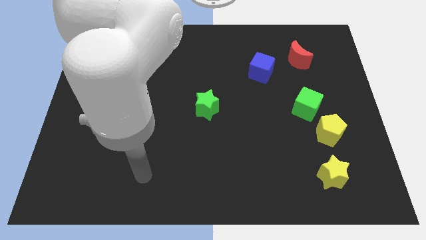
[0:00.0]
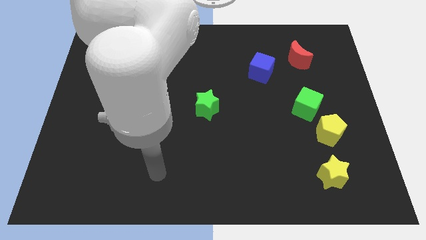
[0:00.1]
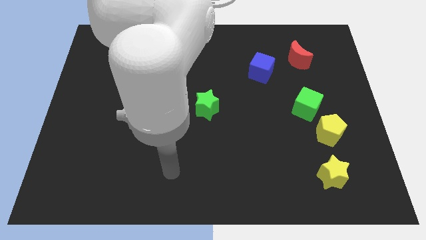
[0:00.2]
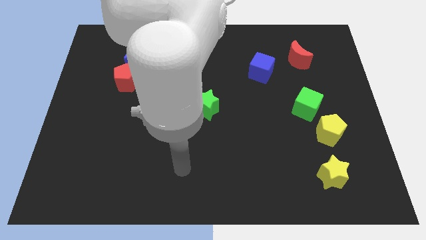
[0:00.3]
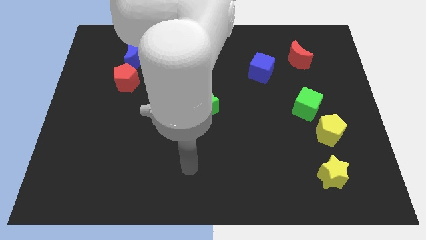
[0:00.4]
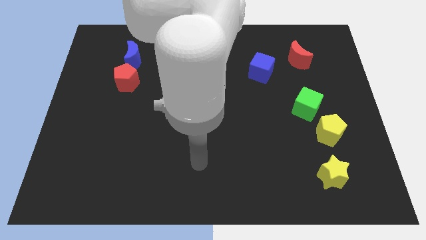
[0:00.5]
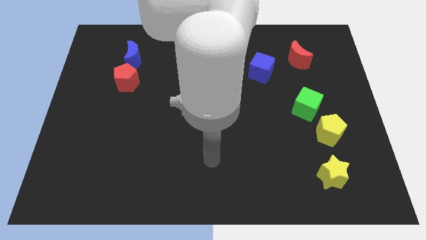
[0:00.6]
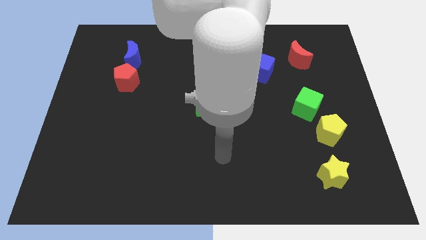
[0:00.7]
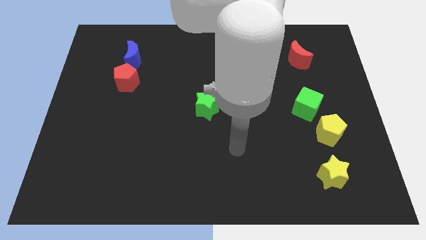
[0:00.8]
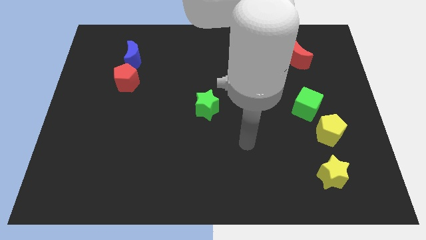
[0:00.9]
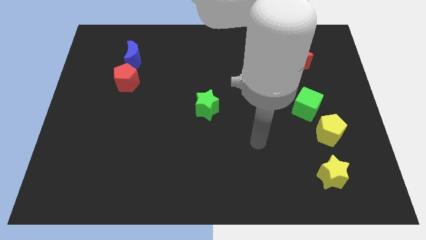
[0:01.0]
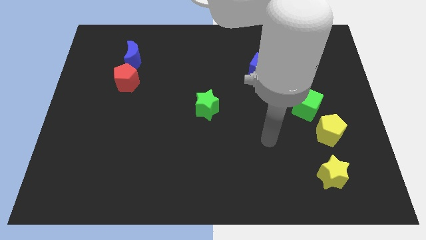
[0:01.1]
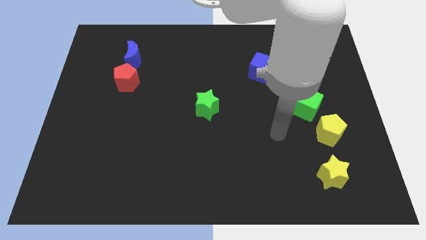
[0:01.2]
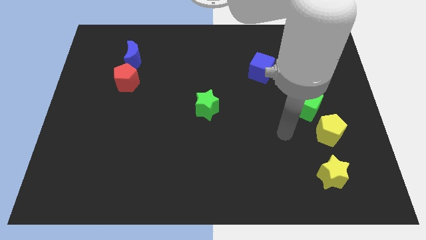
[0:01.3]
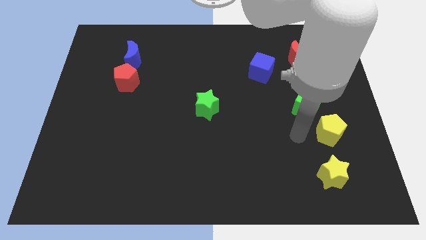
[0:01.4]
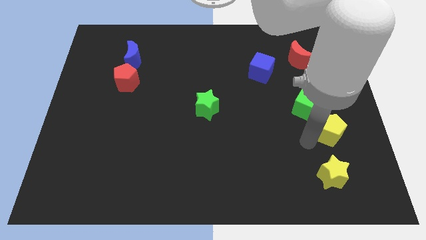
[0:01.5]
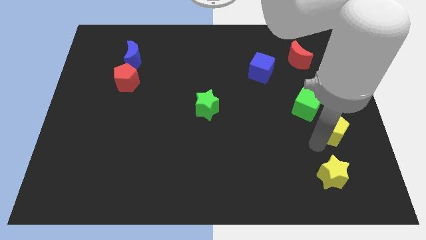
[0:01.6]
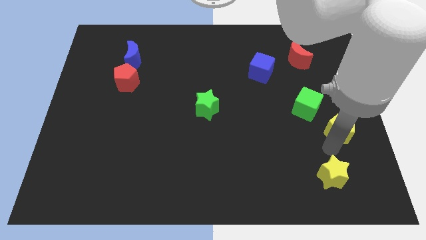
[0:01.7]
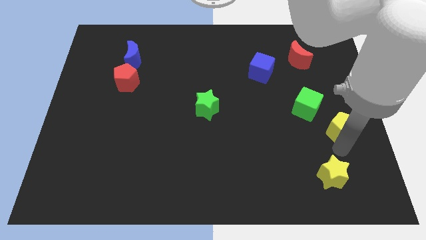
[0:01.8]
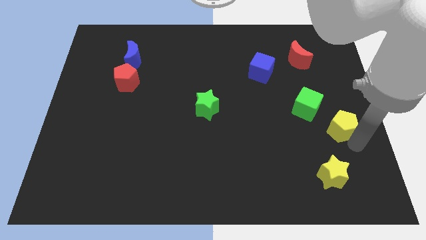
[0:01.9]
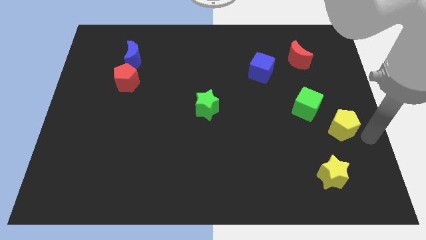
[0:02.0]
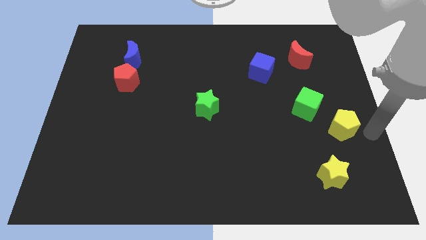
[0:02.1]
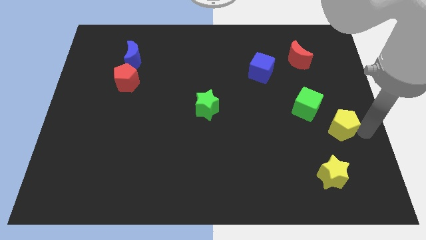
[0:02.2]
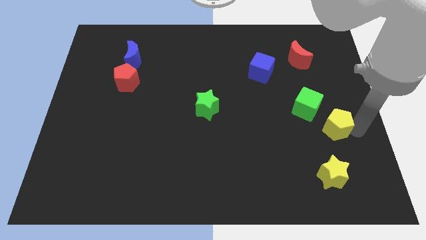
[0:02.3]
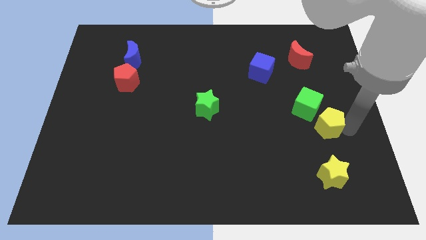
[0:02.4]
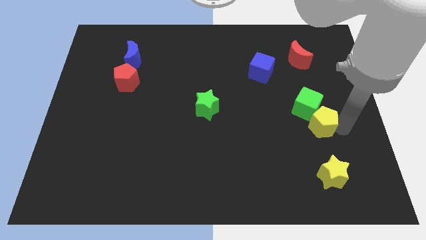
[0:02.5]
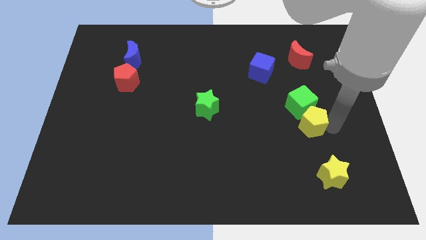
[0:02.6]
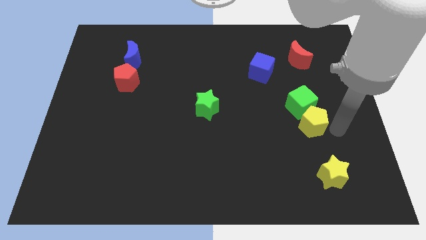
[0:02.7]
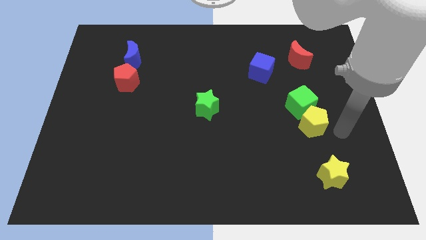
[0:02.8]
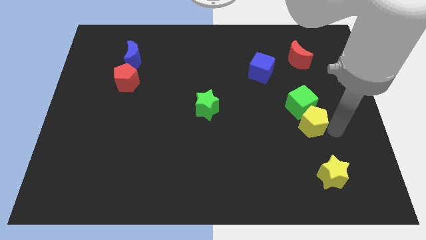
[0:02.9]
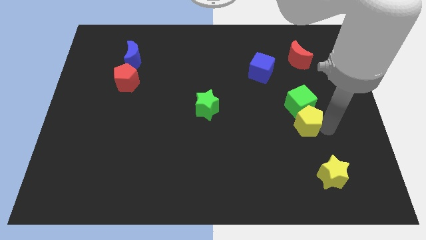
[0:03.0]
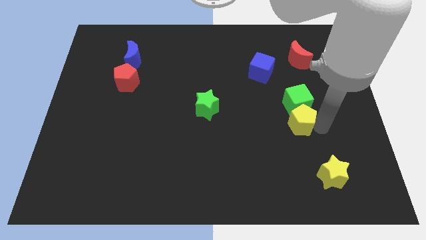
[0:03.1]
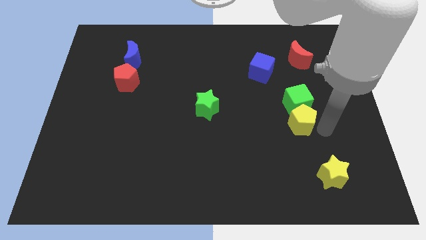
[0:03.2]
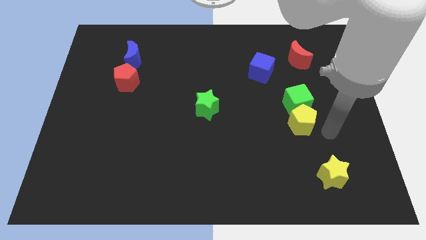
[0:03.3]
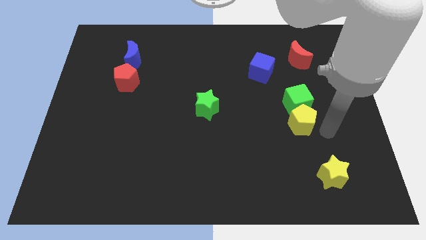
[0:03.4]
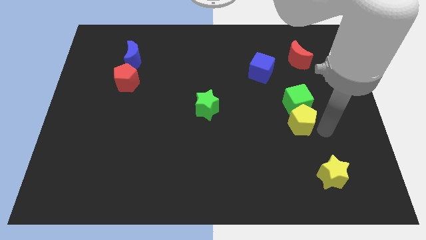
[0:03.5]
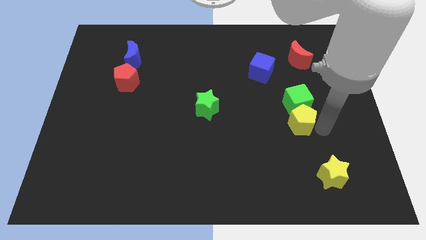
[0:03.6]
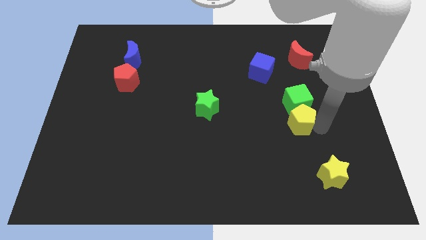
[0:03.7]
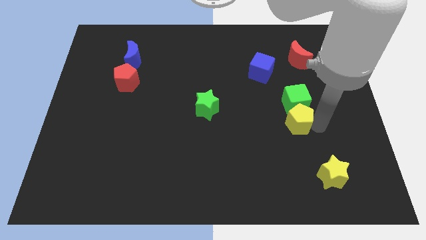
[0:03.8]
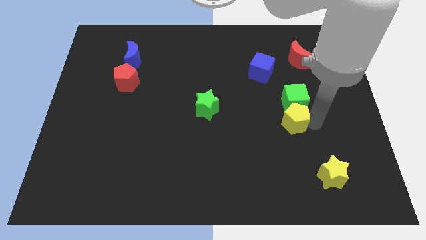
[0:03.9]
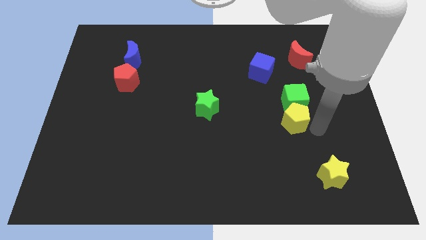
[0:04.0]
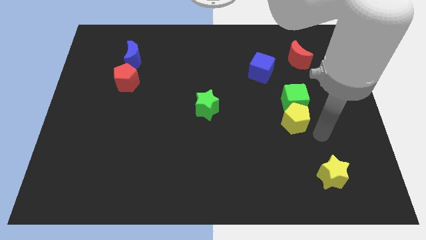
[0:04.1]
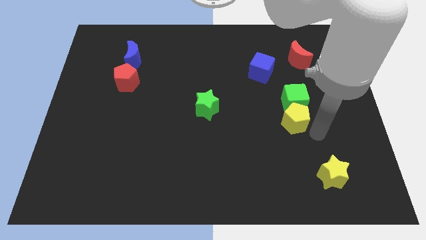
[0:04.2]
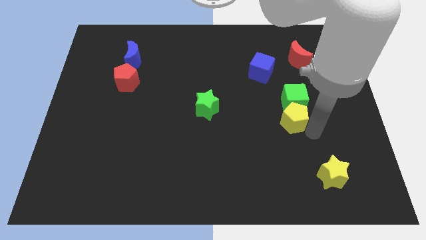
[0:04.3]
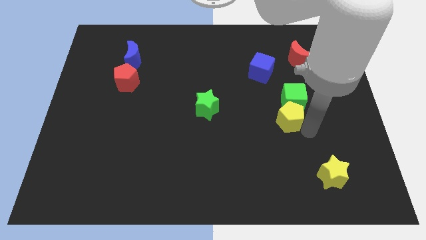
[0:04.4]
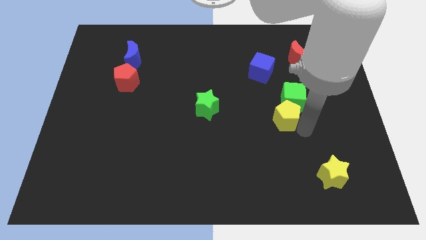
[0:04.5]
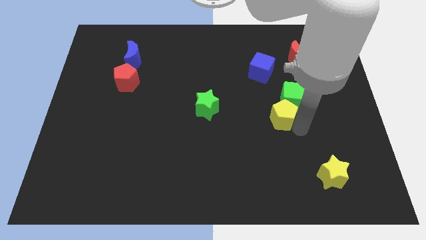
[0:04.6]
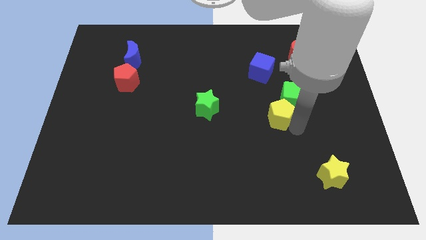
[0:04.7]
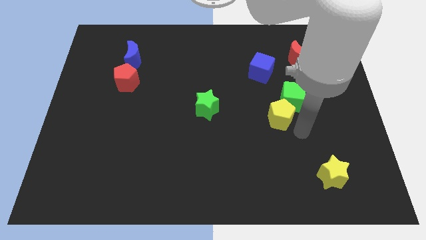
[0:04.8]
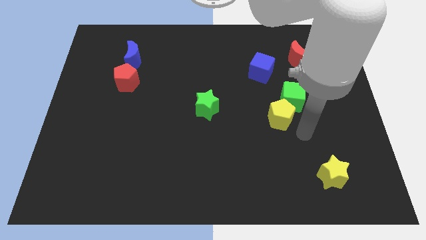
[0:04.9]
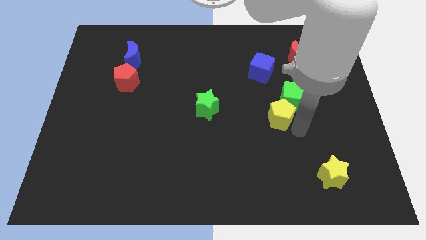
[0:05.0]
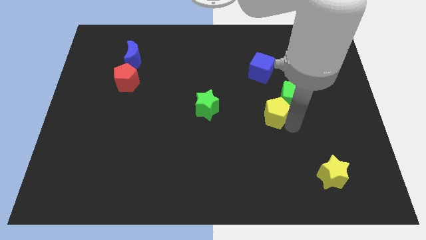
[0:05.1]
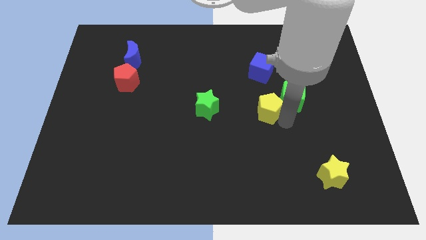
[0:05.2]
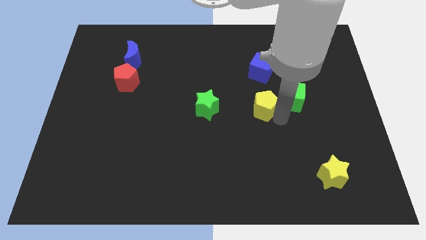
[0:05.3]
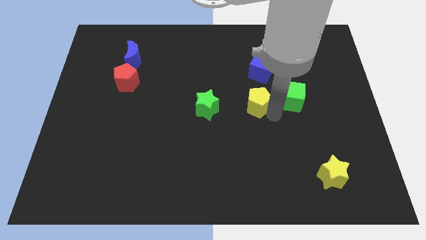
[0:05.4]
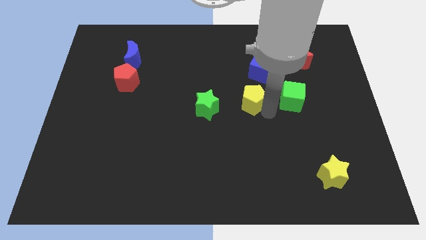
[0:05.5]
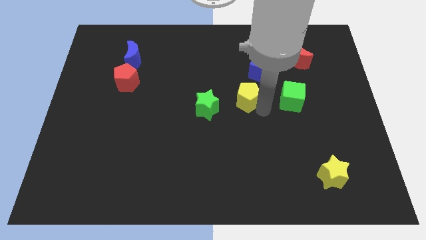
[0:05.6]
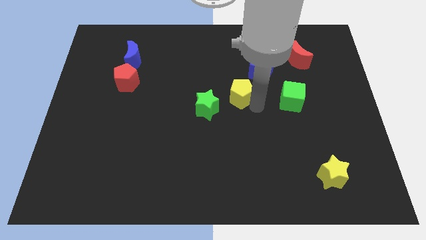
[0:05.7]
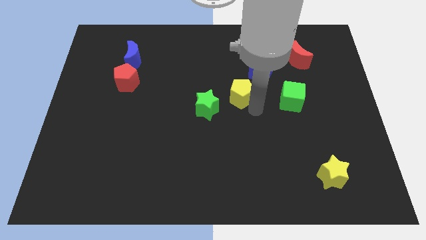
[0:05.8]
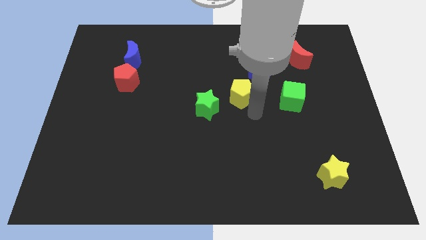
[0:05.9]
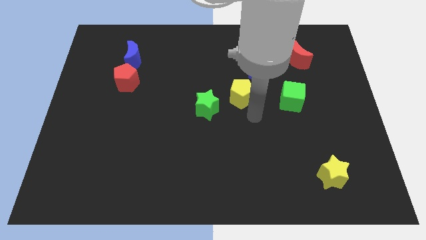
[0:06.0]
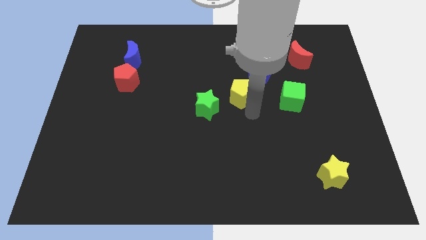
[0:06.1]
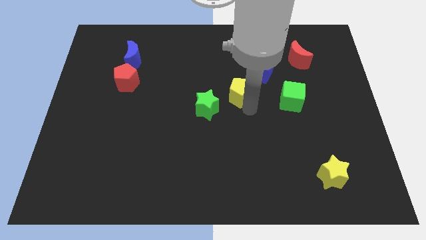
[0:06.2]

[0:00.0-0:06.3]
slide the yellow pentagon up and to the left diagonally

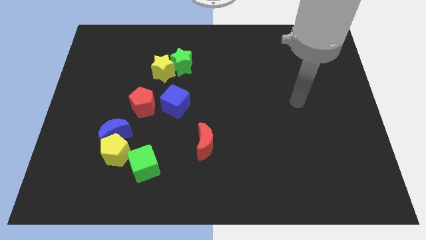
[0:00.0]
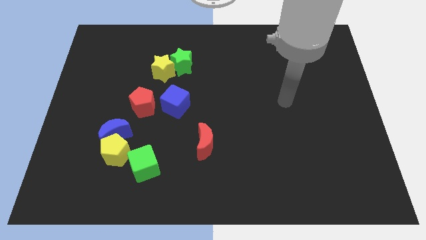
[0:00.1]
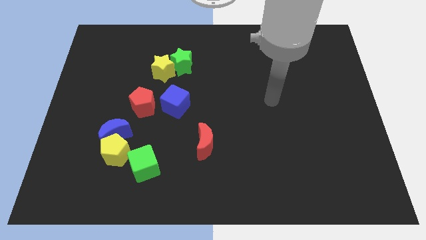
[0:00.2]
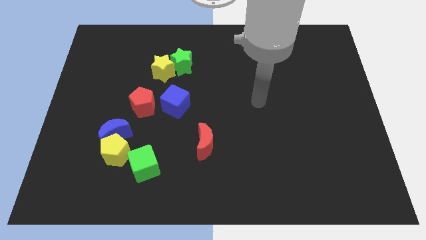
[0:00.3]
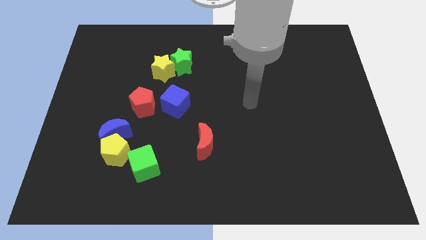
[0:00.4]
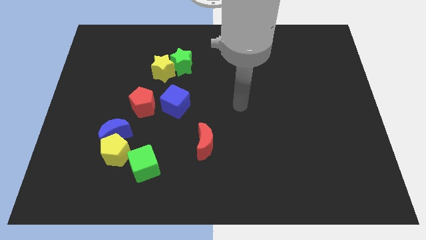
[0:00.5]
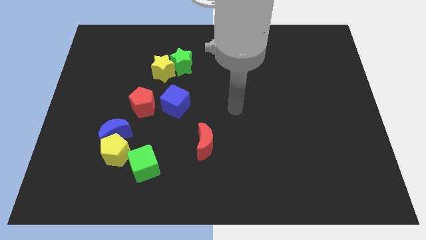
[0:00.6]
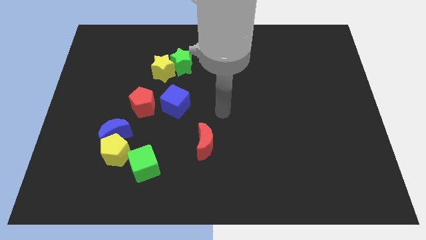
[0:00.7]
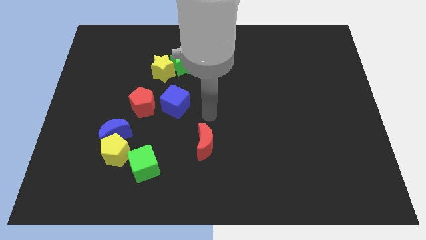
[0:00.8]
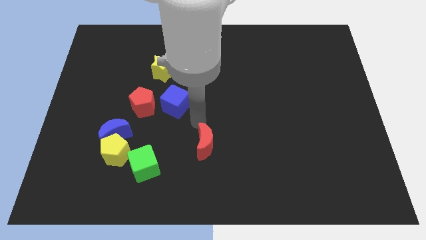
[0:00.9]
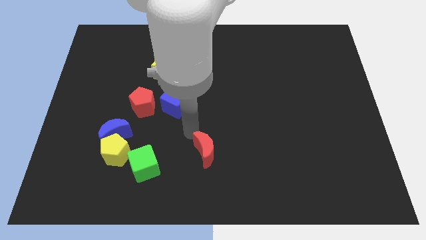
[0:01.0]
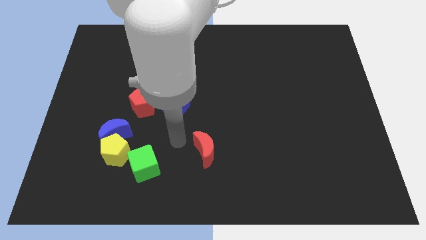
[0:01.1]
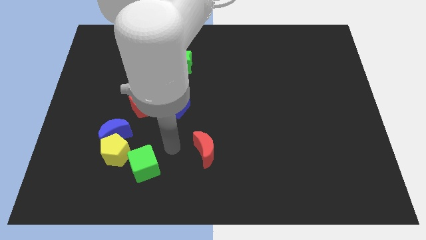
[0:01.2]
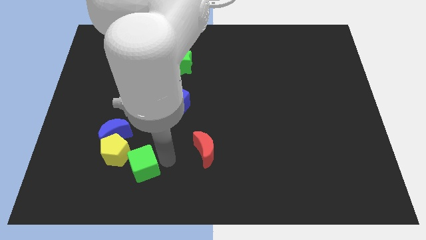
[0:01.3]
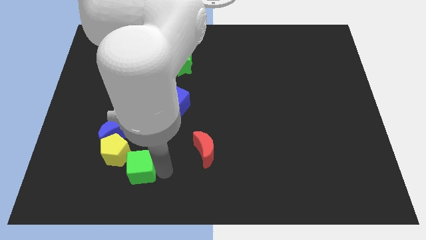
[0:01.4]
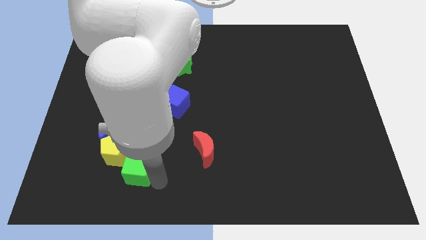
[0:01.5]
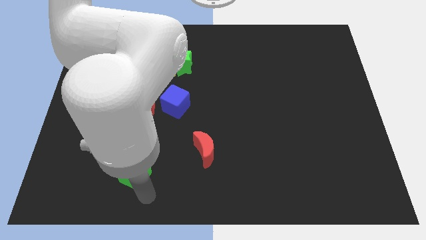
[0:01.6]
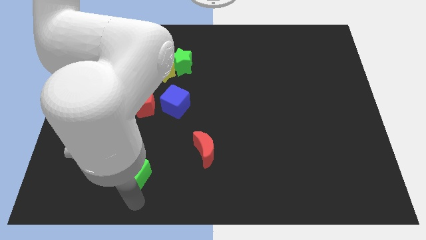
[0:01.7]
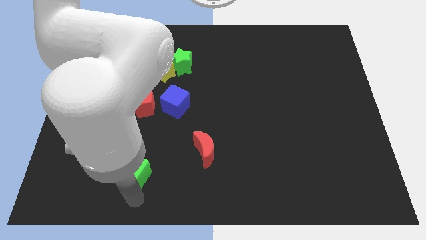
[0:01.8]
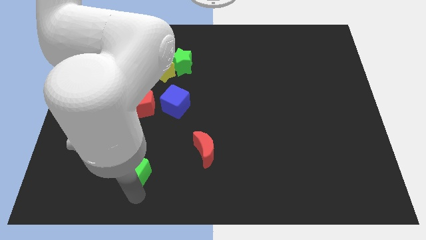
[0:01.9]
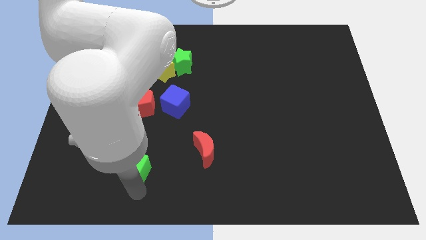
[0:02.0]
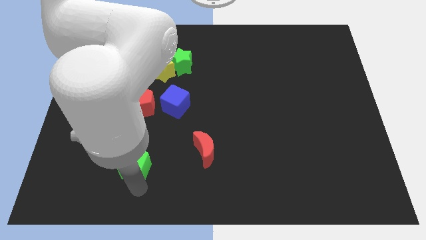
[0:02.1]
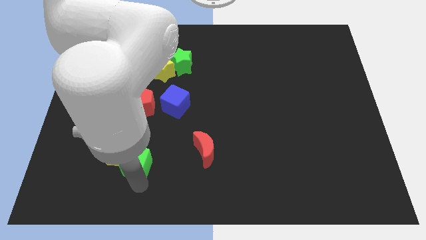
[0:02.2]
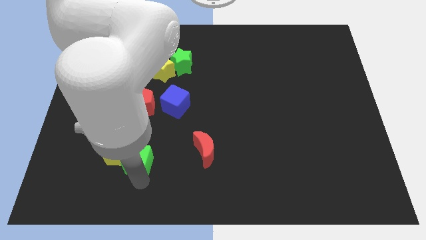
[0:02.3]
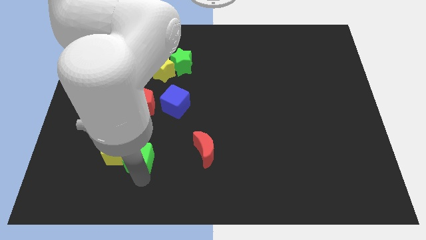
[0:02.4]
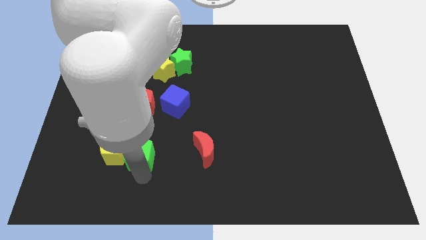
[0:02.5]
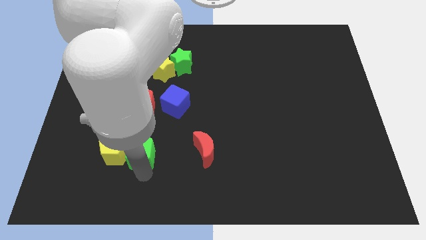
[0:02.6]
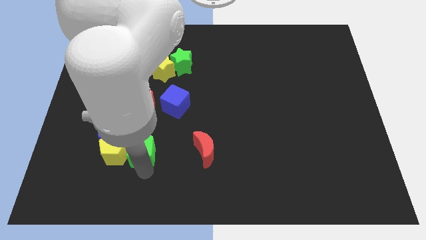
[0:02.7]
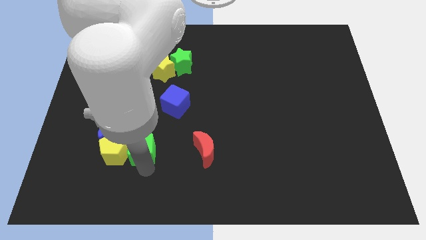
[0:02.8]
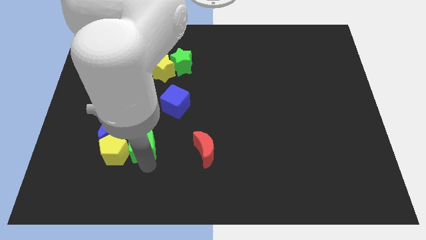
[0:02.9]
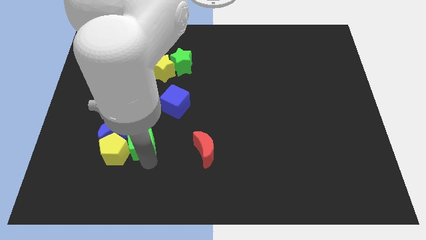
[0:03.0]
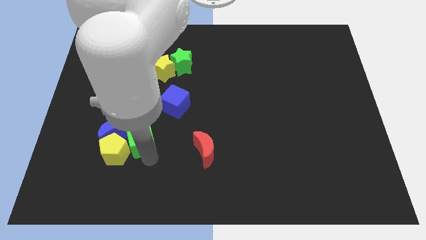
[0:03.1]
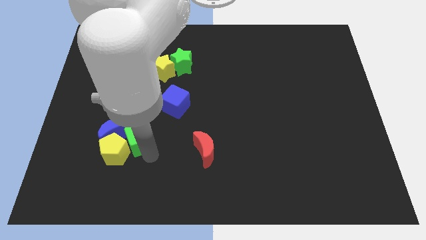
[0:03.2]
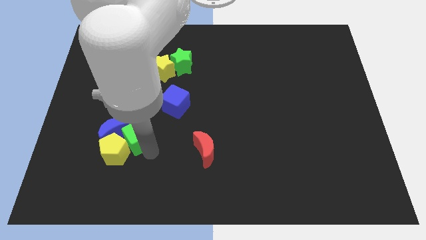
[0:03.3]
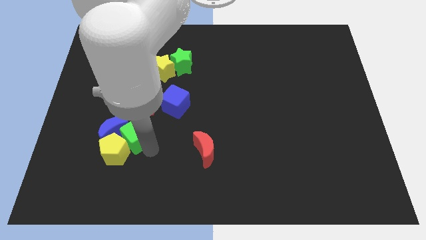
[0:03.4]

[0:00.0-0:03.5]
move the green cube upwards slightly
